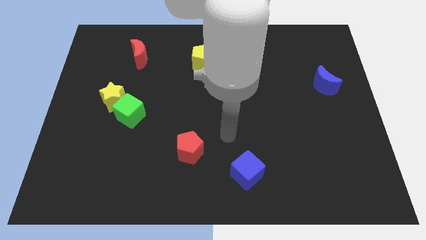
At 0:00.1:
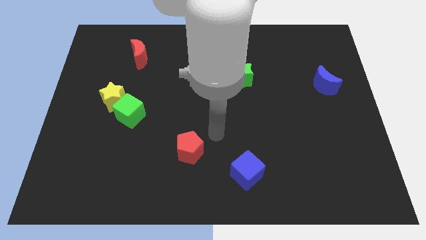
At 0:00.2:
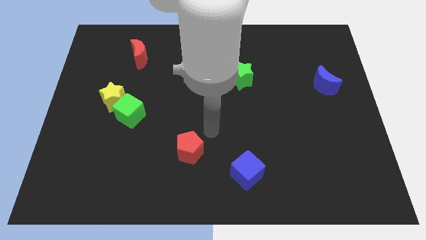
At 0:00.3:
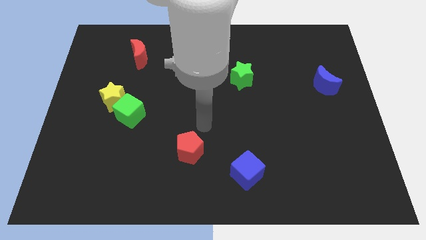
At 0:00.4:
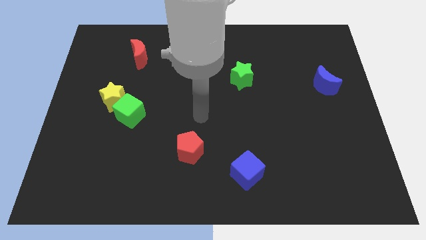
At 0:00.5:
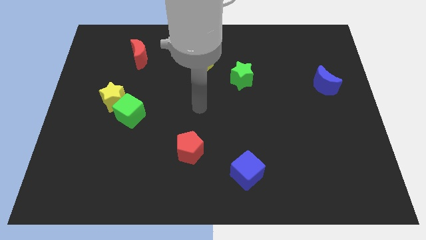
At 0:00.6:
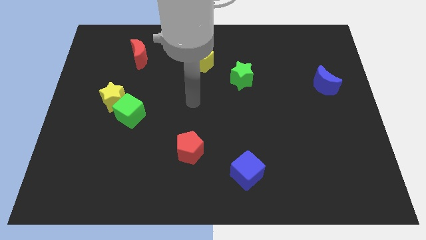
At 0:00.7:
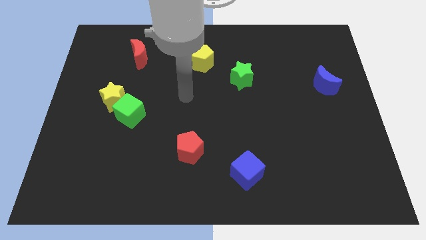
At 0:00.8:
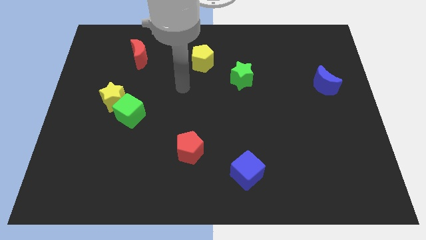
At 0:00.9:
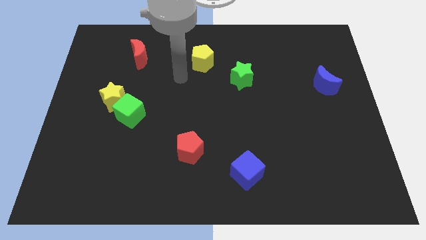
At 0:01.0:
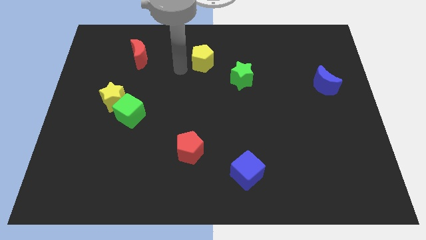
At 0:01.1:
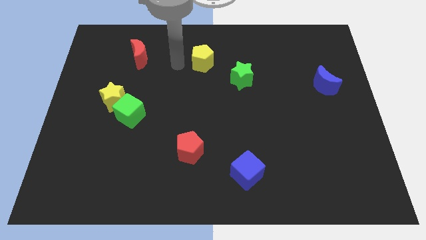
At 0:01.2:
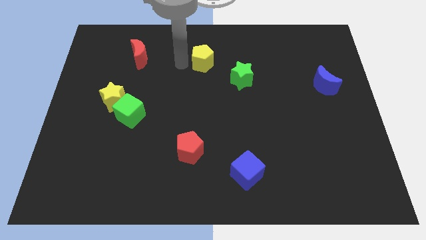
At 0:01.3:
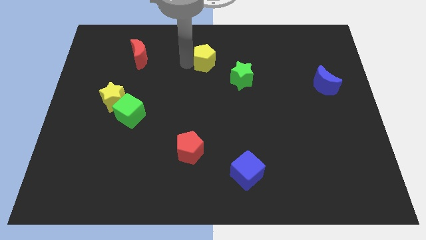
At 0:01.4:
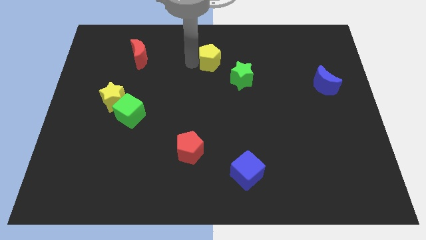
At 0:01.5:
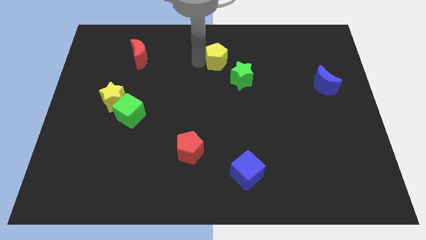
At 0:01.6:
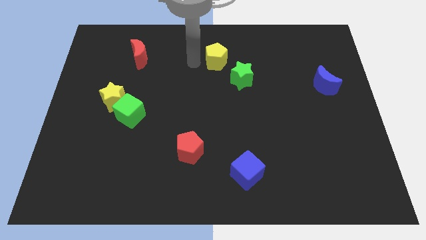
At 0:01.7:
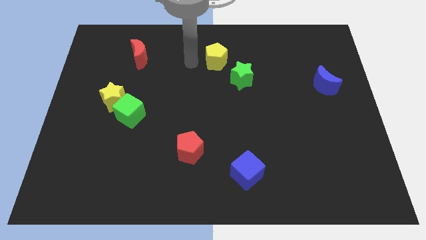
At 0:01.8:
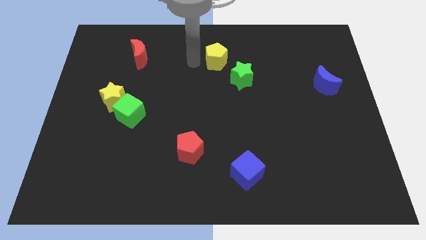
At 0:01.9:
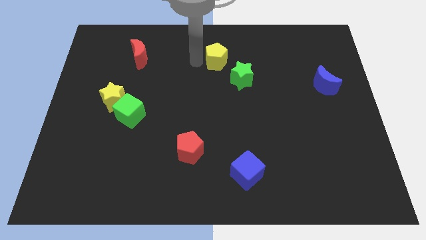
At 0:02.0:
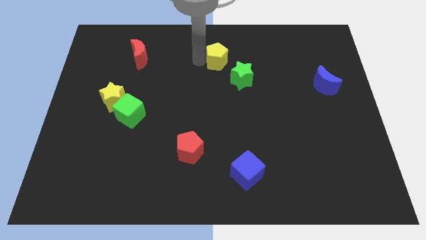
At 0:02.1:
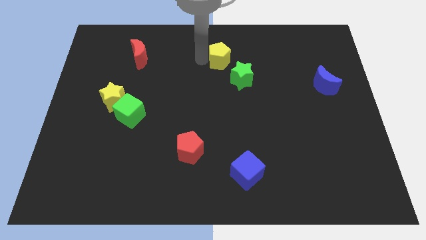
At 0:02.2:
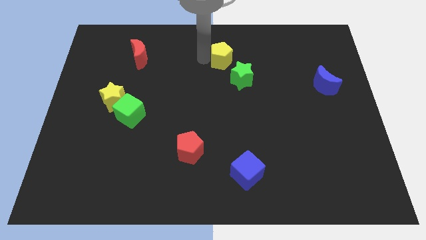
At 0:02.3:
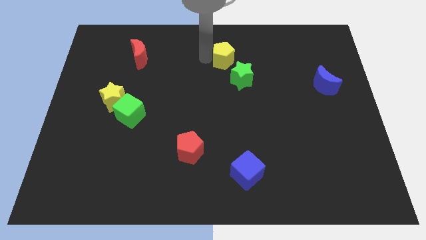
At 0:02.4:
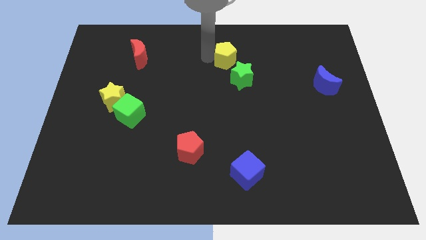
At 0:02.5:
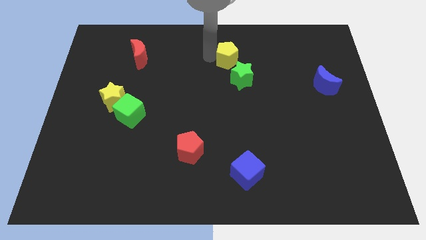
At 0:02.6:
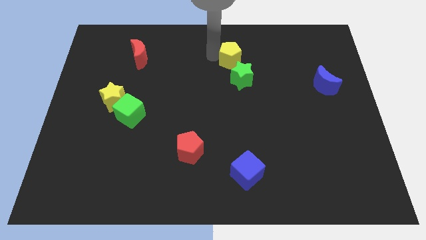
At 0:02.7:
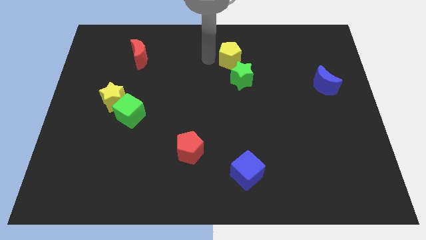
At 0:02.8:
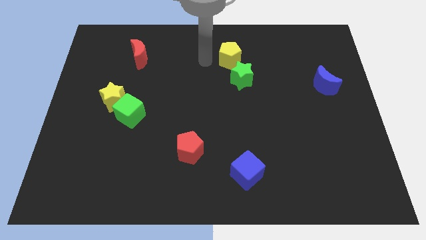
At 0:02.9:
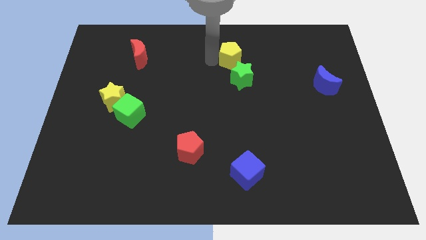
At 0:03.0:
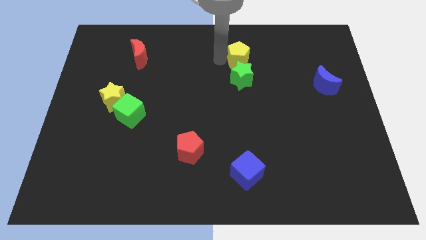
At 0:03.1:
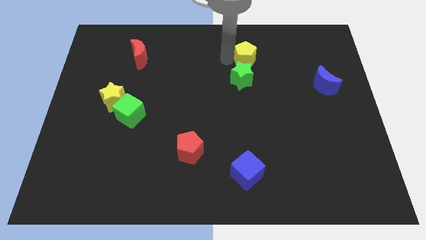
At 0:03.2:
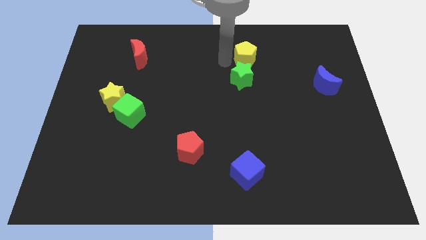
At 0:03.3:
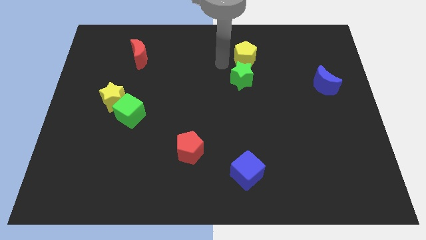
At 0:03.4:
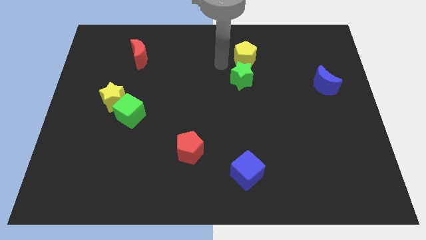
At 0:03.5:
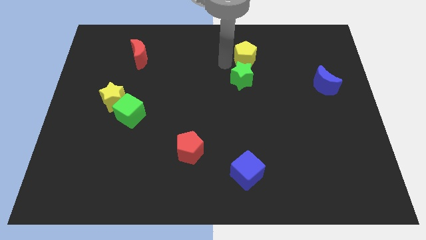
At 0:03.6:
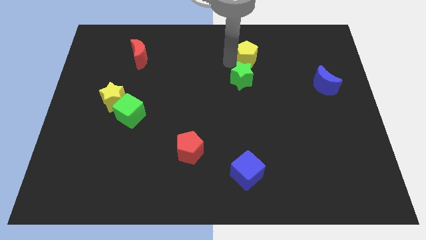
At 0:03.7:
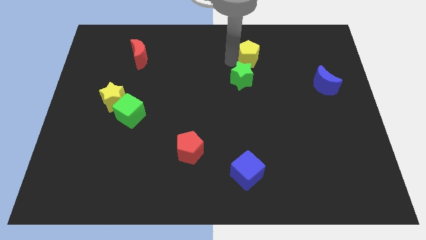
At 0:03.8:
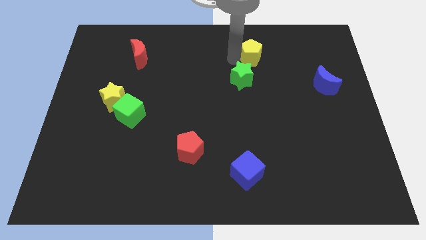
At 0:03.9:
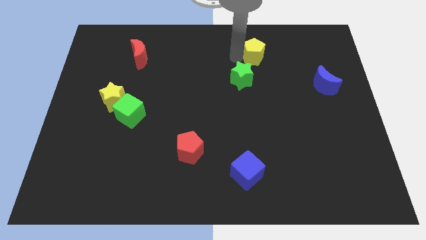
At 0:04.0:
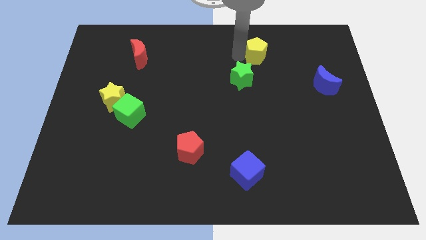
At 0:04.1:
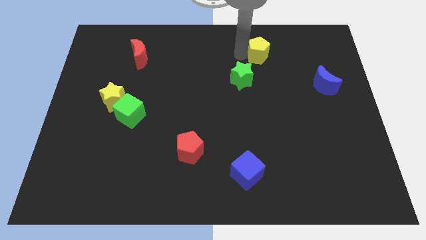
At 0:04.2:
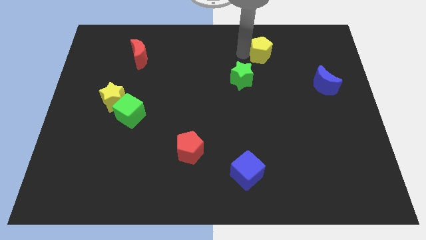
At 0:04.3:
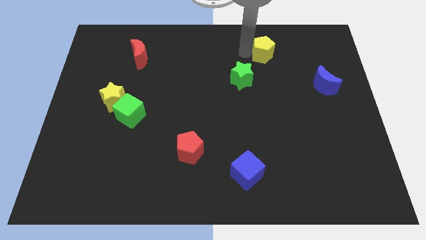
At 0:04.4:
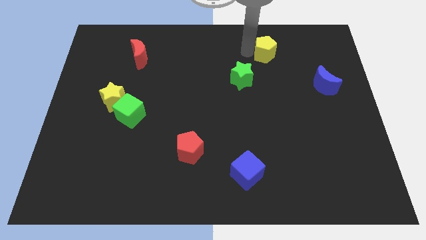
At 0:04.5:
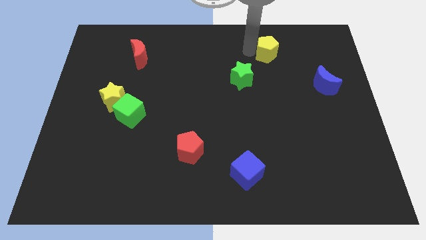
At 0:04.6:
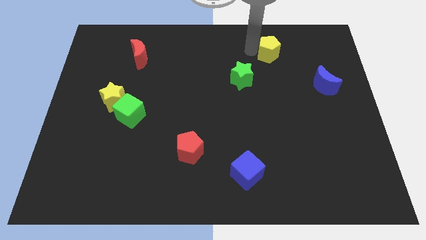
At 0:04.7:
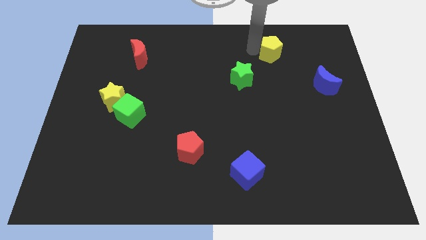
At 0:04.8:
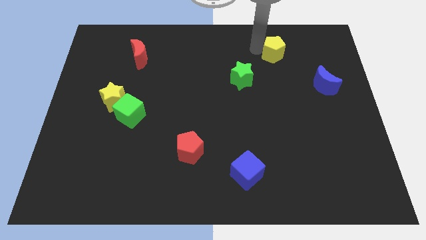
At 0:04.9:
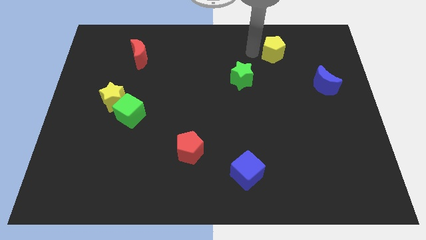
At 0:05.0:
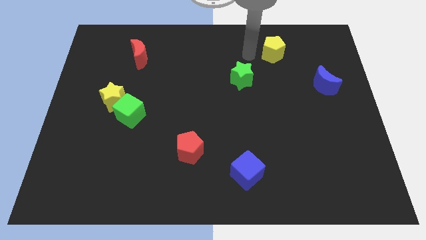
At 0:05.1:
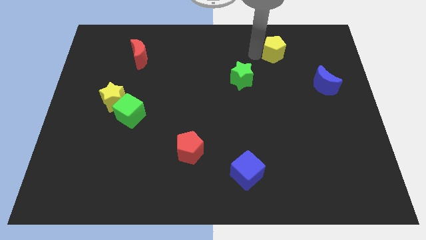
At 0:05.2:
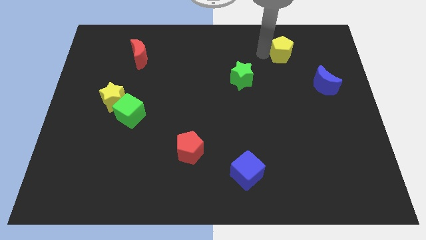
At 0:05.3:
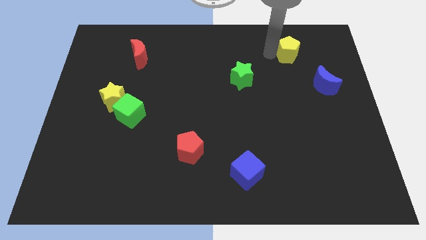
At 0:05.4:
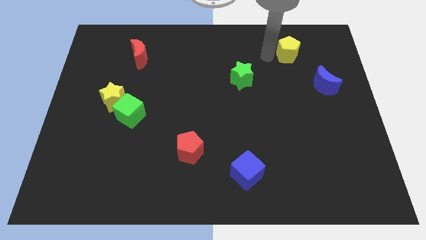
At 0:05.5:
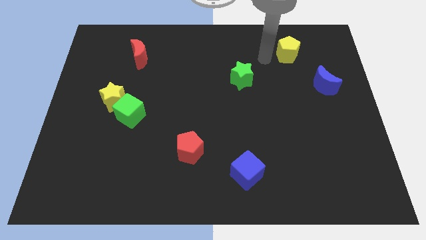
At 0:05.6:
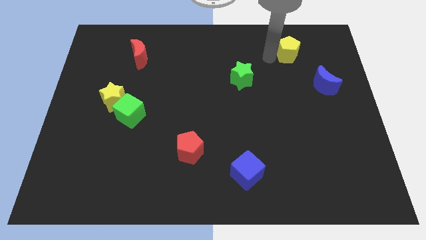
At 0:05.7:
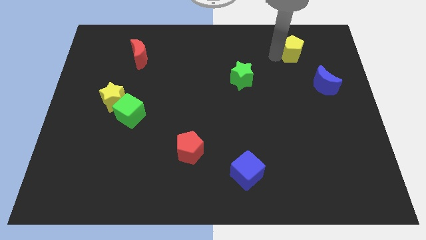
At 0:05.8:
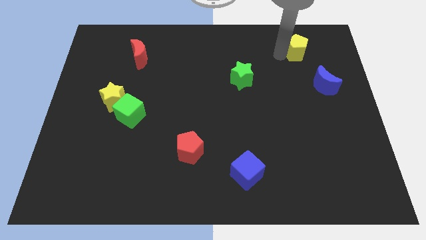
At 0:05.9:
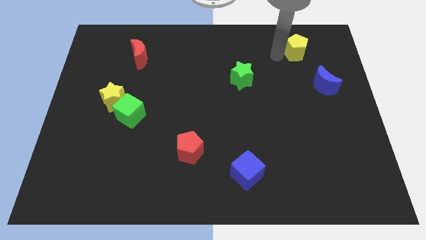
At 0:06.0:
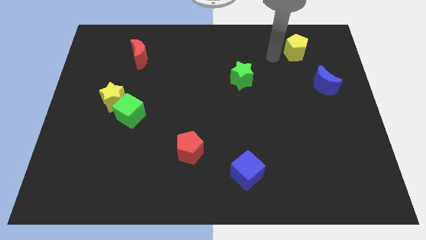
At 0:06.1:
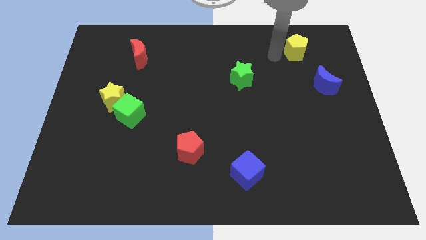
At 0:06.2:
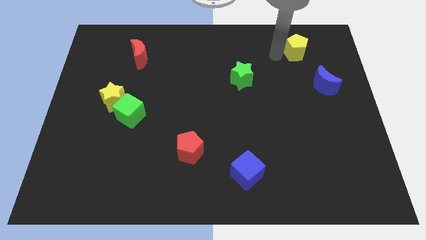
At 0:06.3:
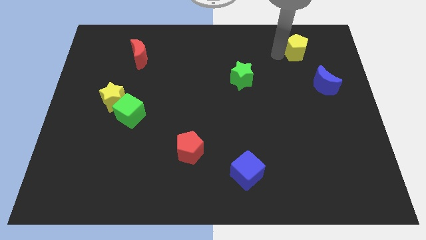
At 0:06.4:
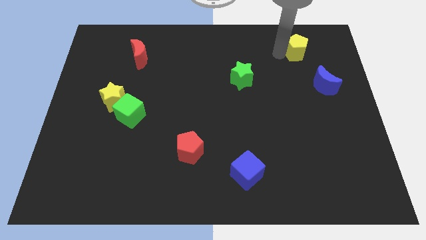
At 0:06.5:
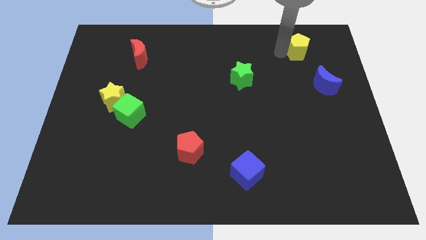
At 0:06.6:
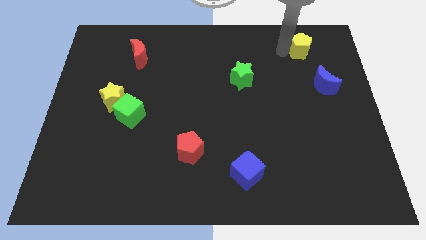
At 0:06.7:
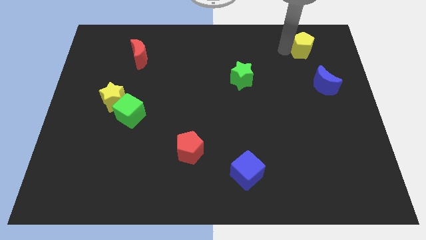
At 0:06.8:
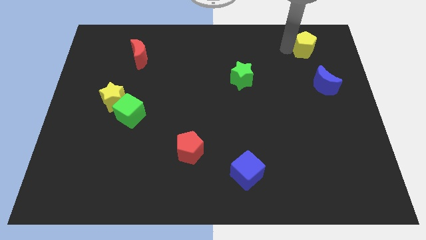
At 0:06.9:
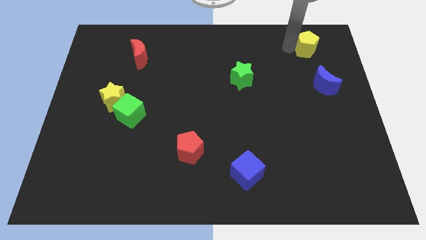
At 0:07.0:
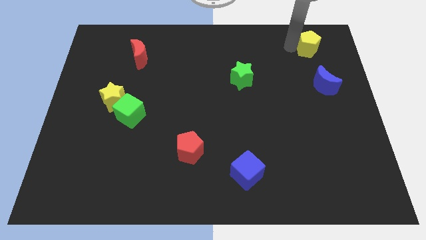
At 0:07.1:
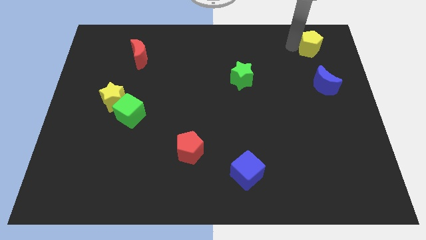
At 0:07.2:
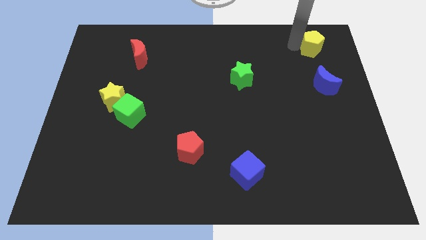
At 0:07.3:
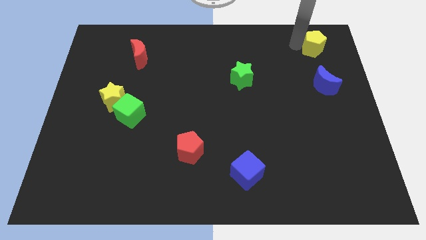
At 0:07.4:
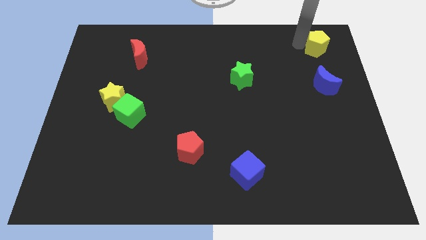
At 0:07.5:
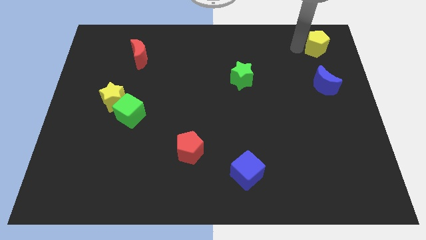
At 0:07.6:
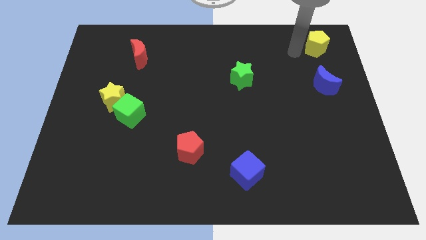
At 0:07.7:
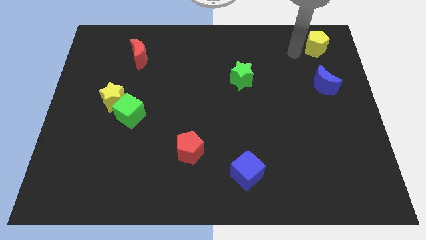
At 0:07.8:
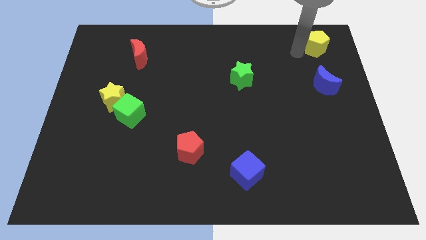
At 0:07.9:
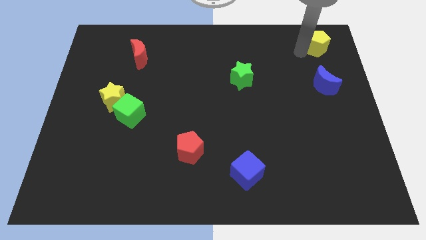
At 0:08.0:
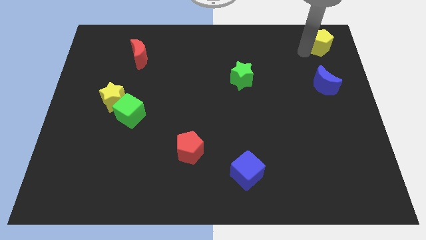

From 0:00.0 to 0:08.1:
put the yellow pentagon to the top right
